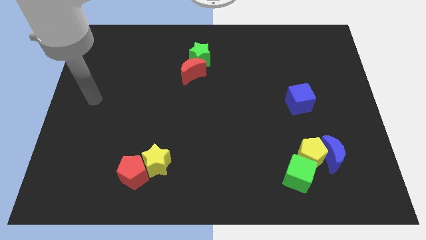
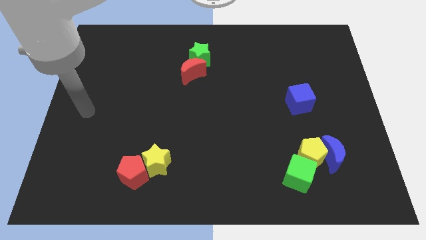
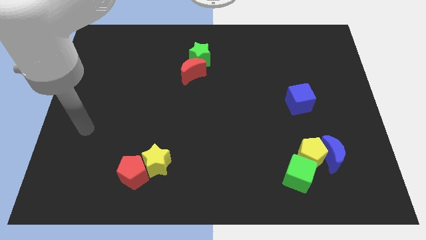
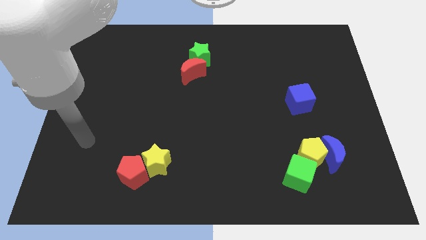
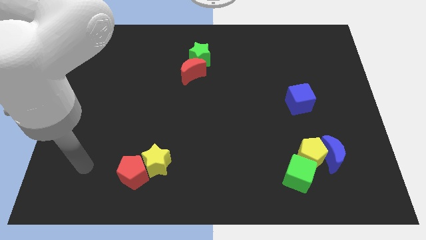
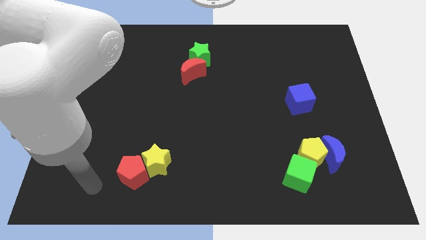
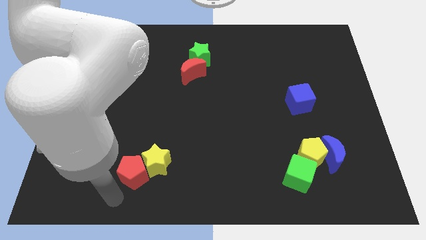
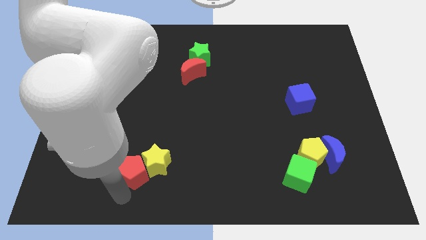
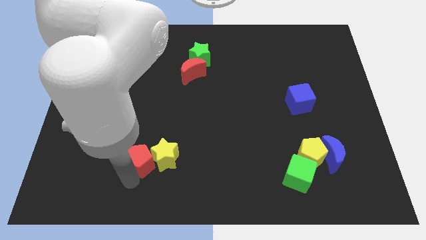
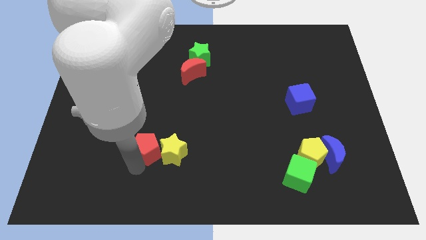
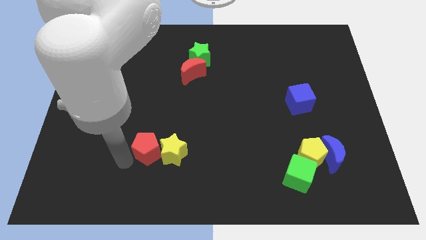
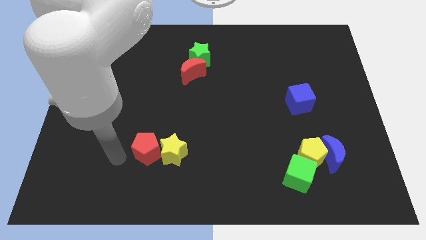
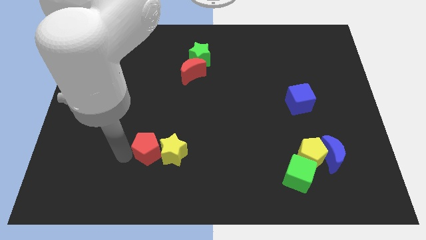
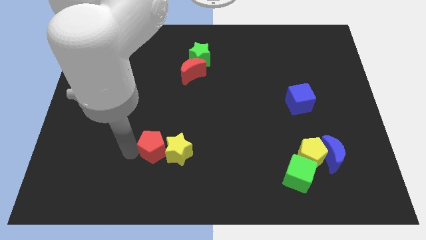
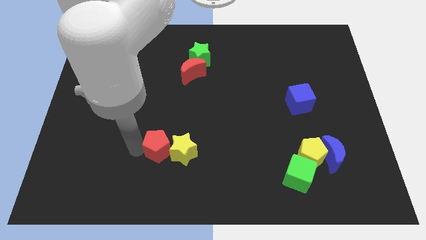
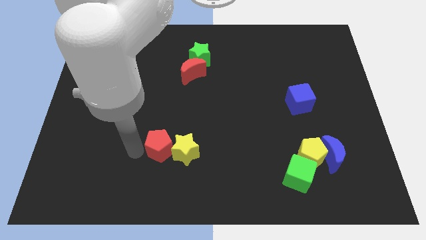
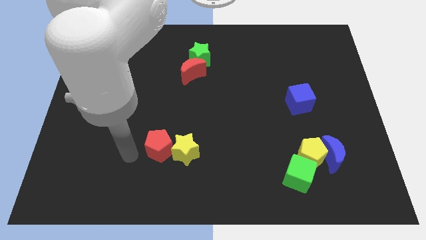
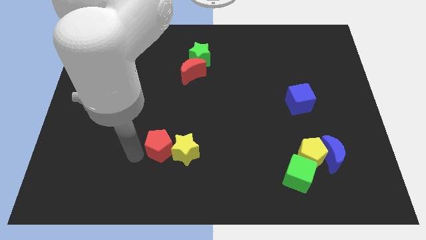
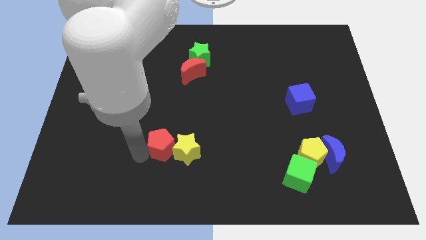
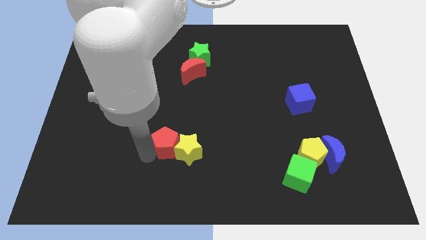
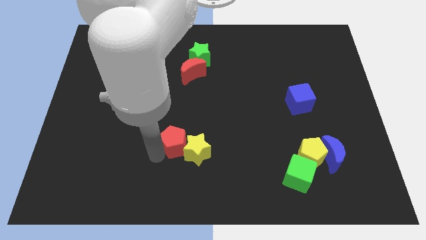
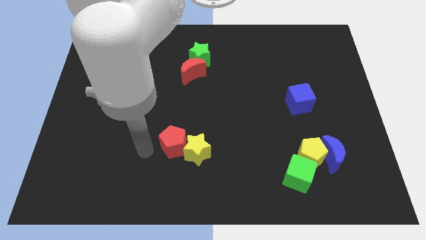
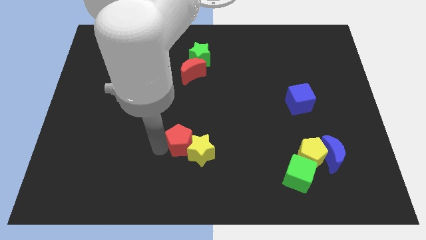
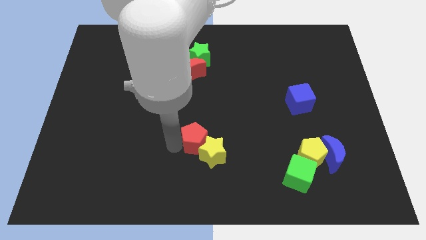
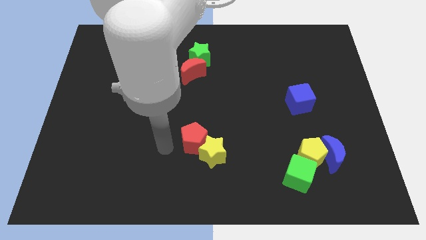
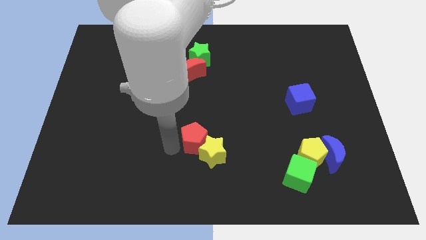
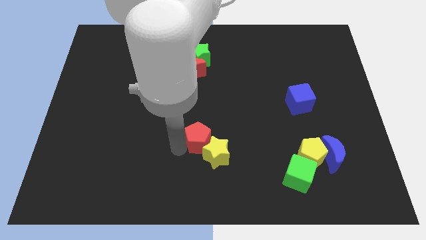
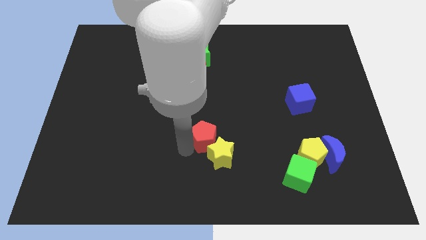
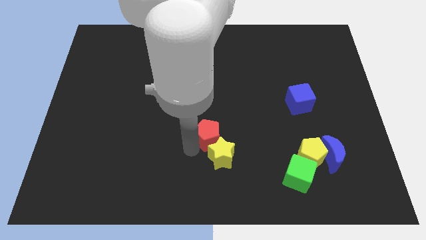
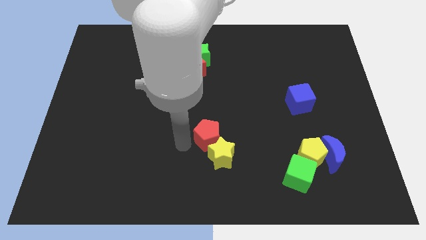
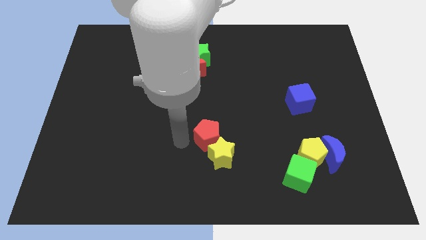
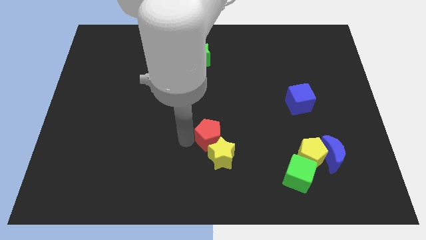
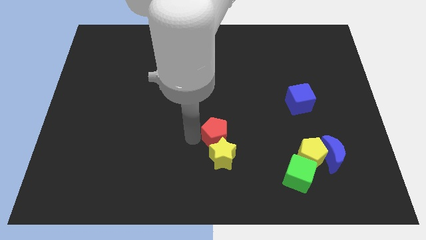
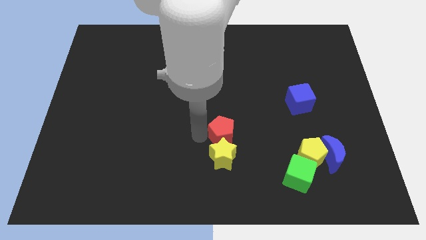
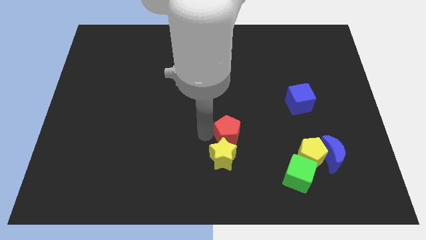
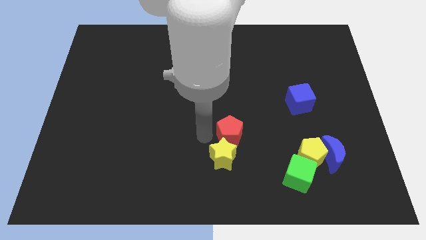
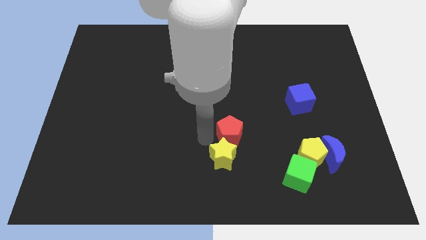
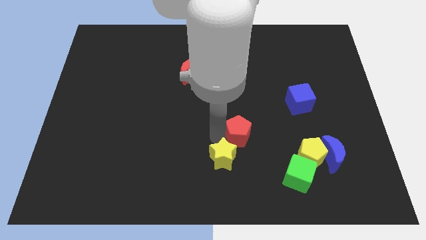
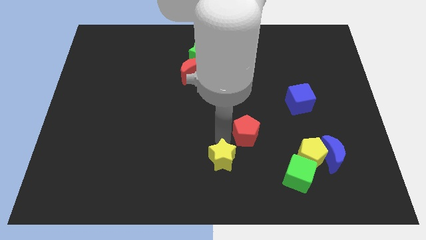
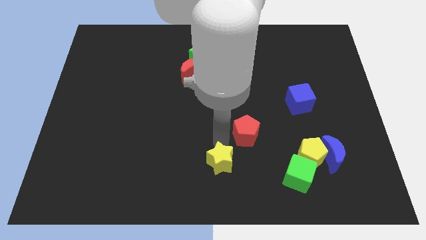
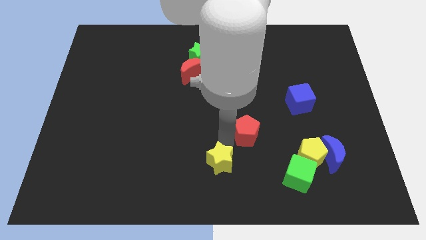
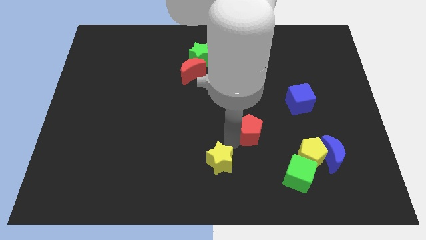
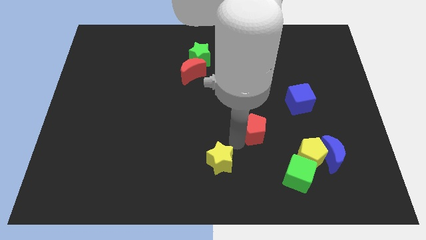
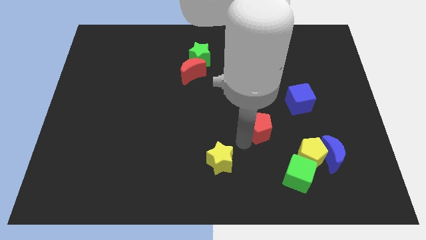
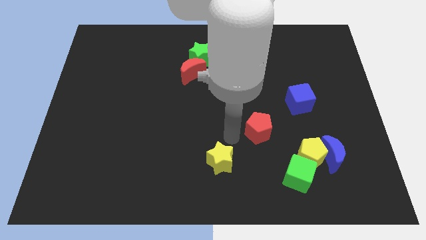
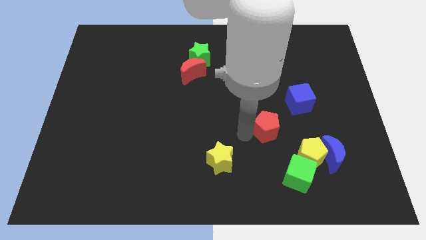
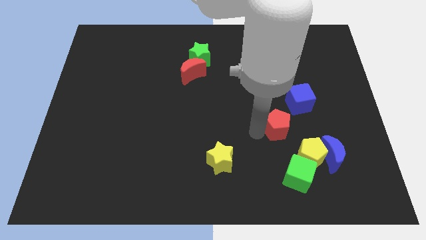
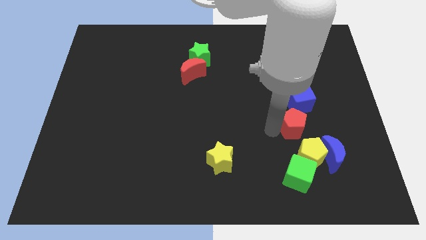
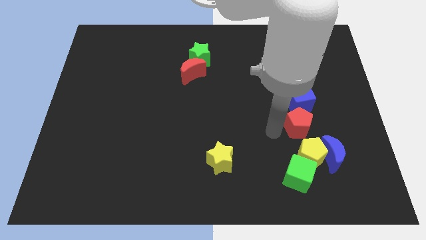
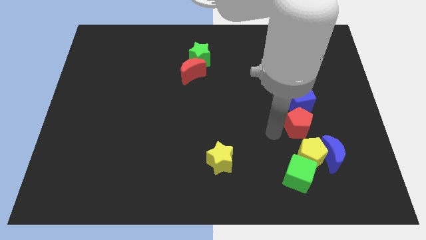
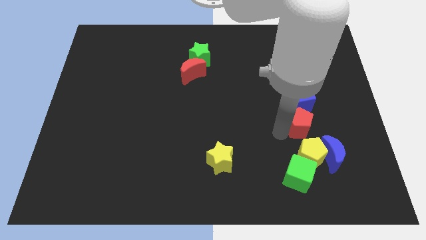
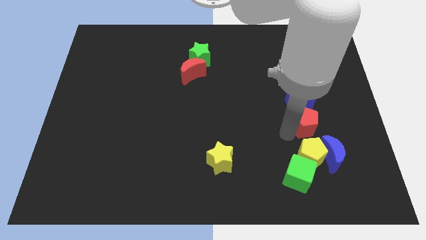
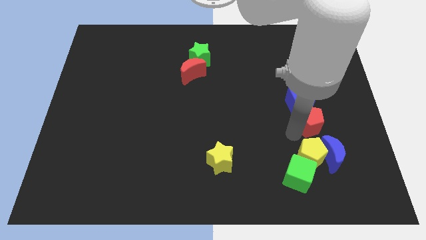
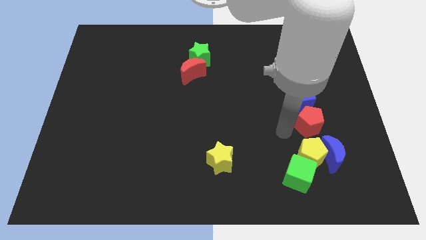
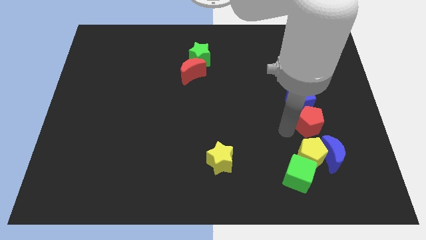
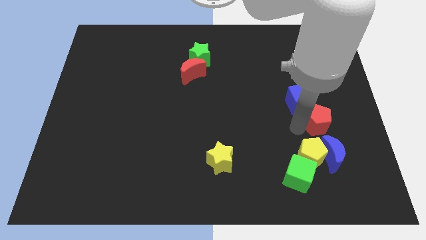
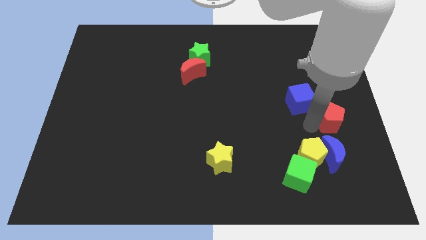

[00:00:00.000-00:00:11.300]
slide the red pentagon to the center right
